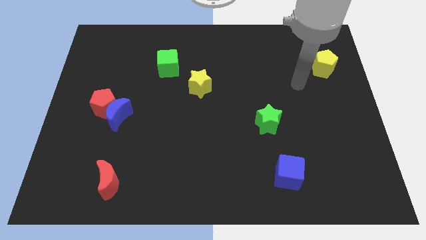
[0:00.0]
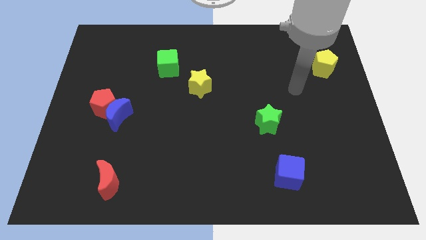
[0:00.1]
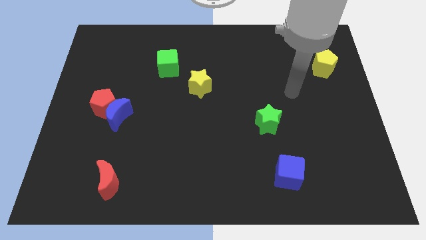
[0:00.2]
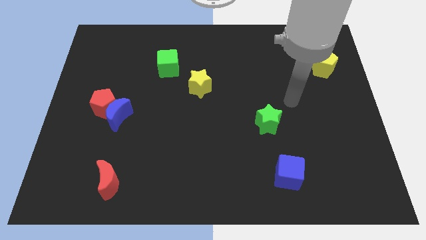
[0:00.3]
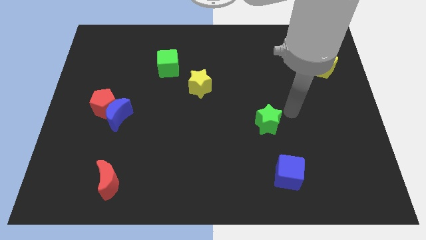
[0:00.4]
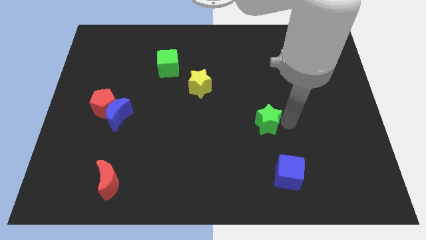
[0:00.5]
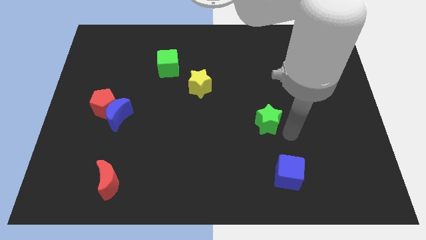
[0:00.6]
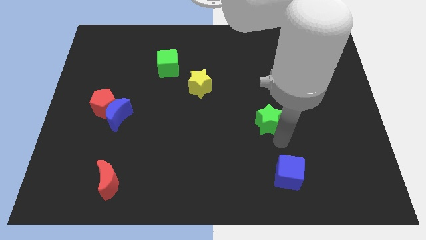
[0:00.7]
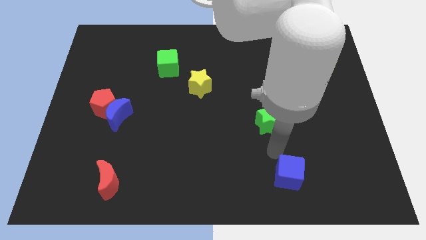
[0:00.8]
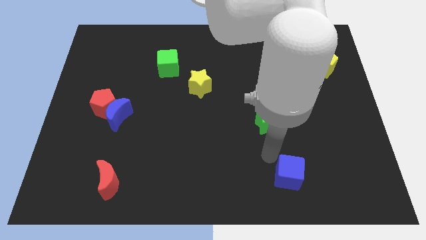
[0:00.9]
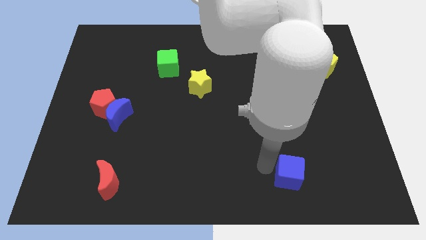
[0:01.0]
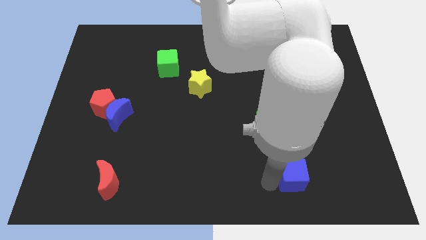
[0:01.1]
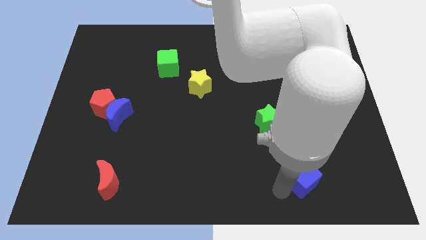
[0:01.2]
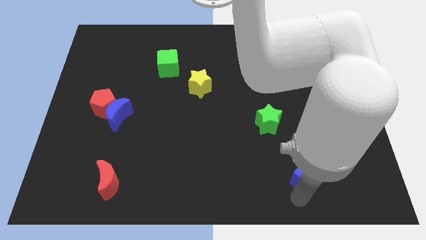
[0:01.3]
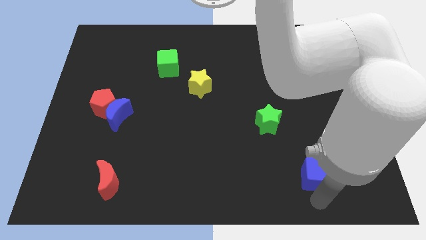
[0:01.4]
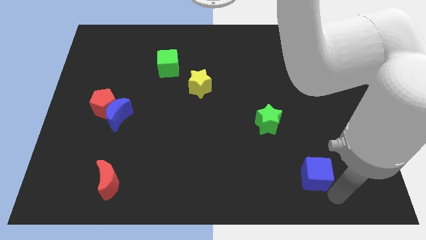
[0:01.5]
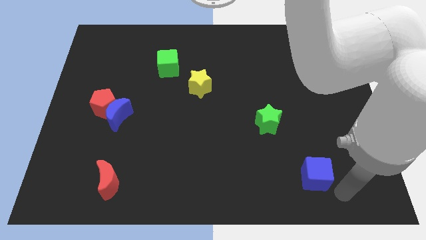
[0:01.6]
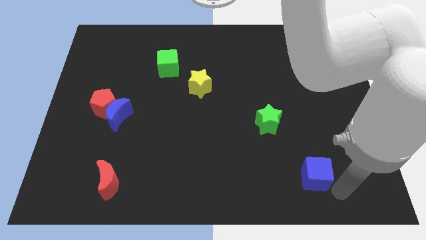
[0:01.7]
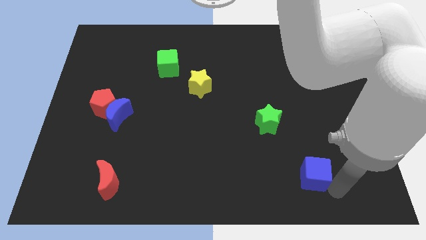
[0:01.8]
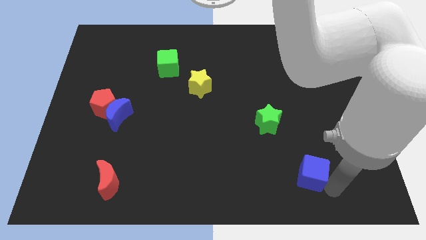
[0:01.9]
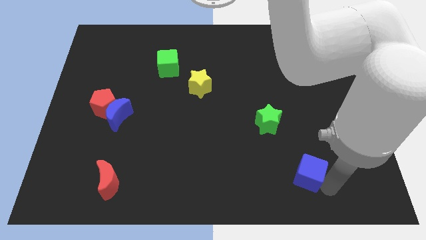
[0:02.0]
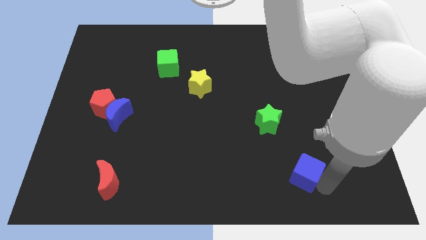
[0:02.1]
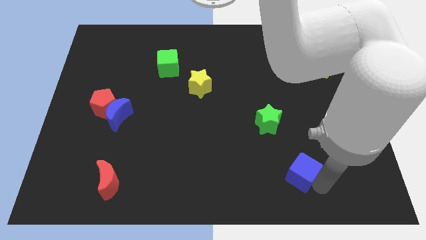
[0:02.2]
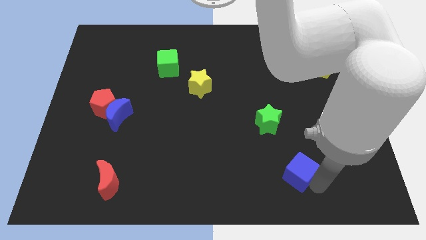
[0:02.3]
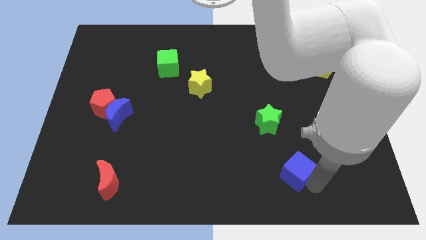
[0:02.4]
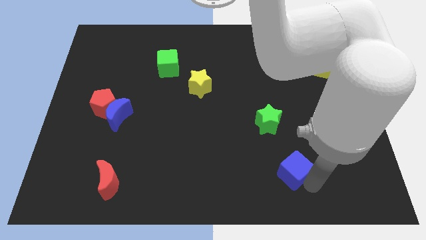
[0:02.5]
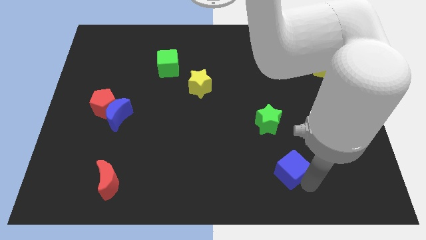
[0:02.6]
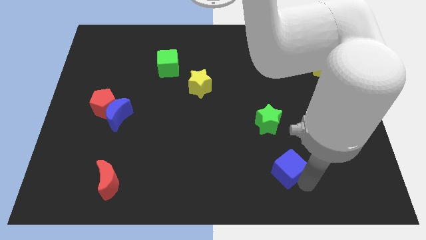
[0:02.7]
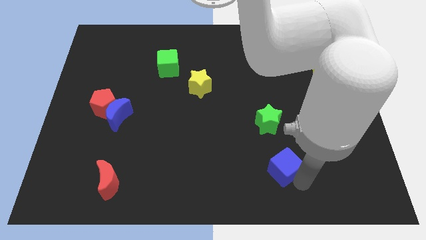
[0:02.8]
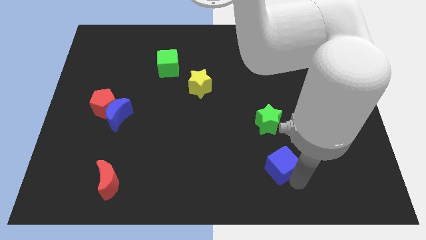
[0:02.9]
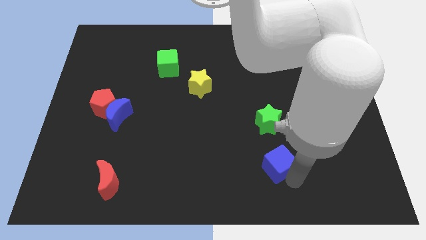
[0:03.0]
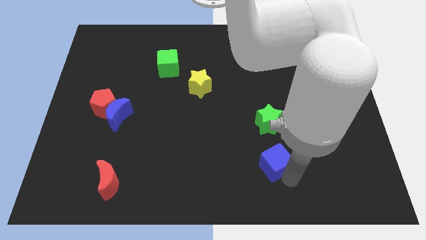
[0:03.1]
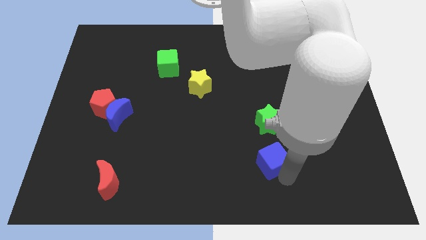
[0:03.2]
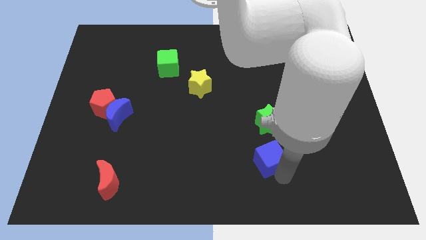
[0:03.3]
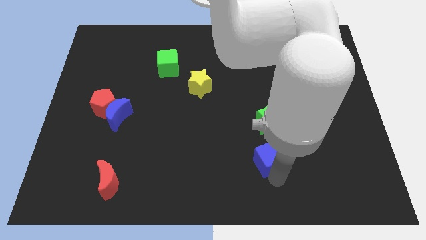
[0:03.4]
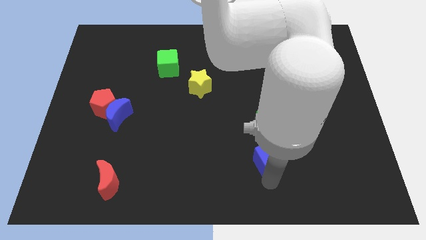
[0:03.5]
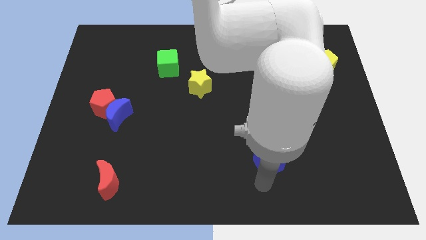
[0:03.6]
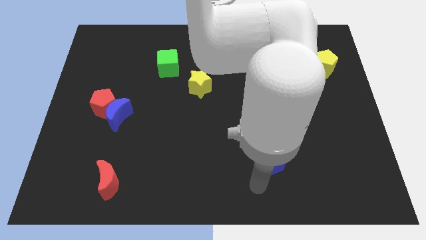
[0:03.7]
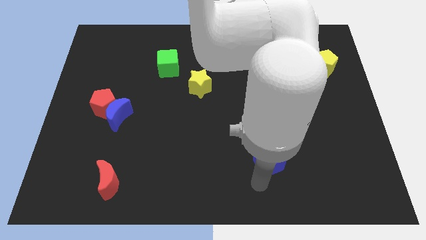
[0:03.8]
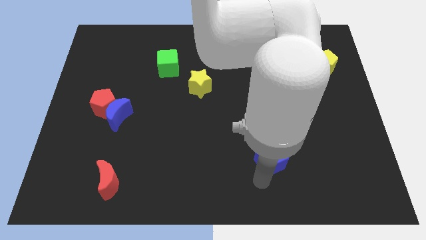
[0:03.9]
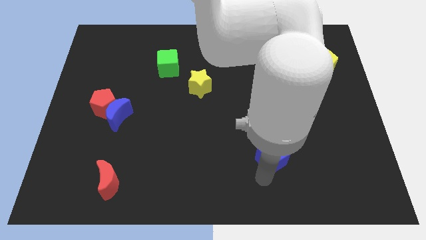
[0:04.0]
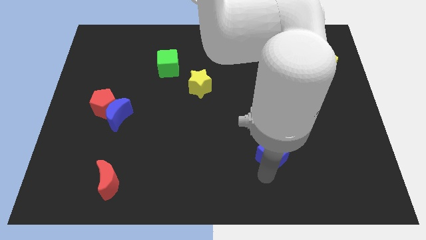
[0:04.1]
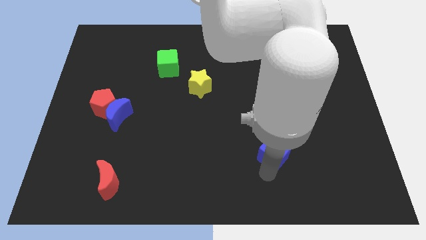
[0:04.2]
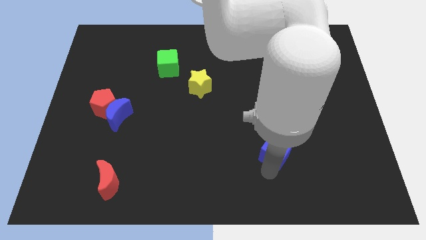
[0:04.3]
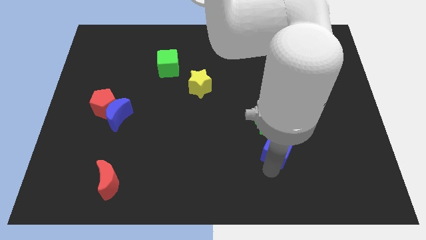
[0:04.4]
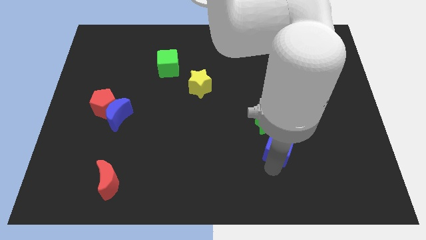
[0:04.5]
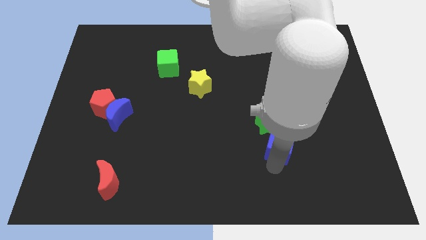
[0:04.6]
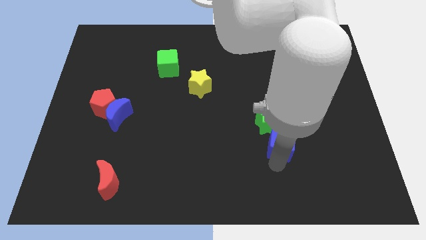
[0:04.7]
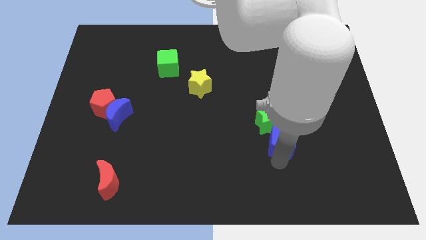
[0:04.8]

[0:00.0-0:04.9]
push the blue cube next to the green star

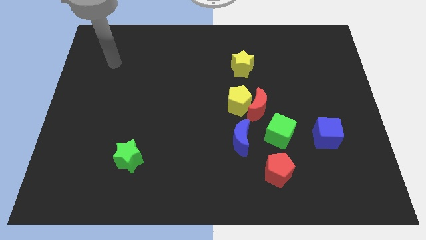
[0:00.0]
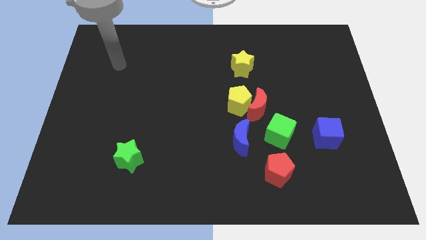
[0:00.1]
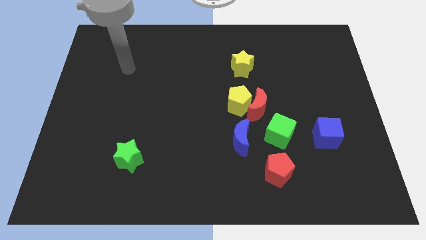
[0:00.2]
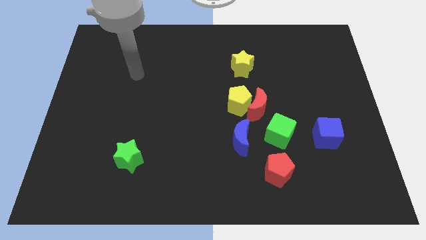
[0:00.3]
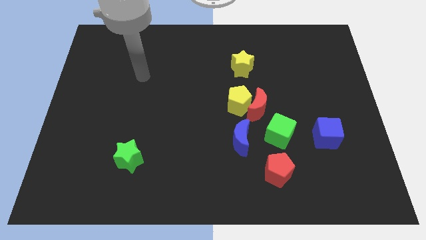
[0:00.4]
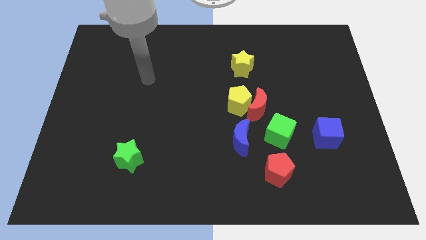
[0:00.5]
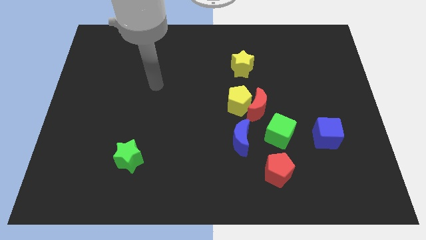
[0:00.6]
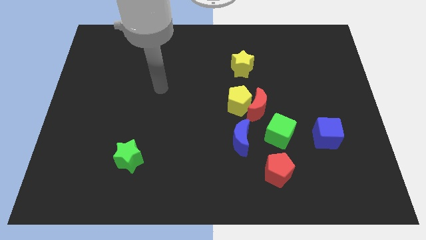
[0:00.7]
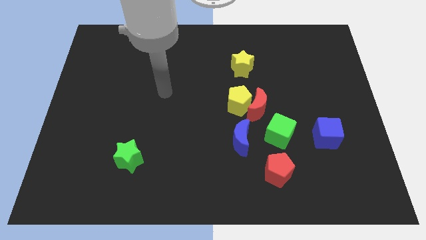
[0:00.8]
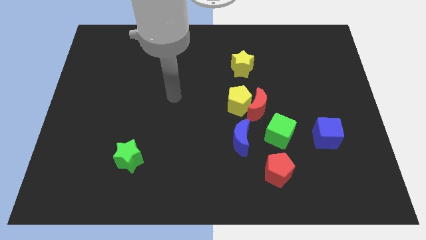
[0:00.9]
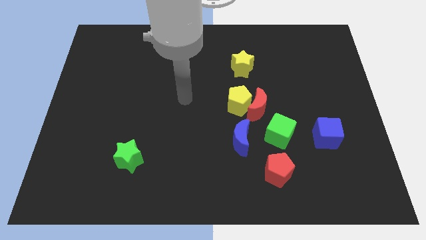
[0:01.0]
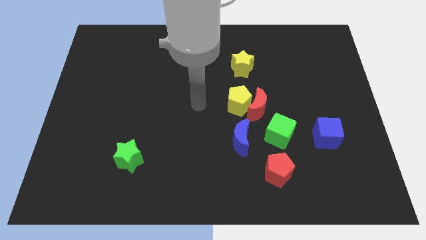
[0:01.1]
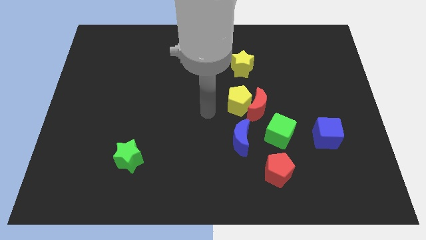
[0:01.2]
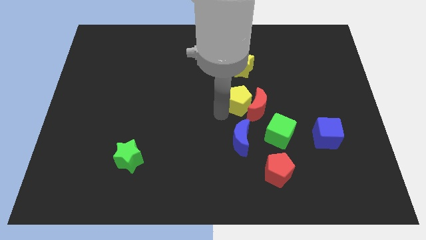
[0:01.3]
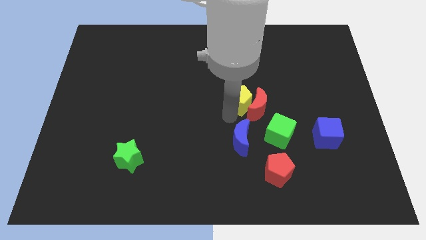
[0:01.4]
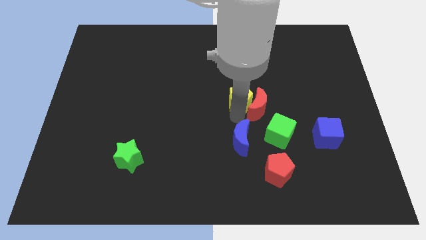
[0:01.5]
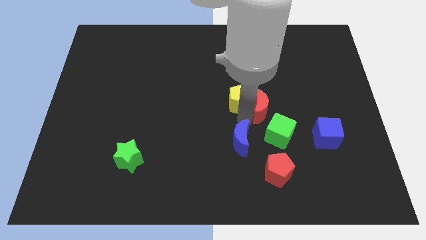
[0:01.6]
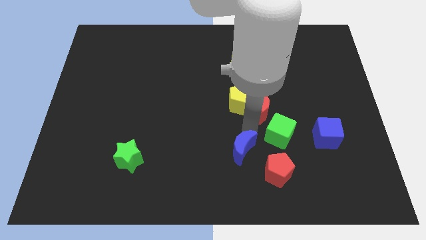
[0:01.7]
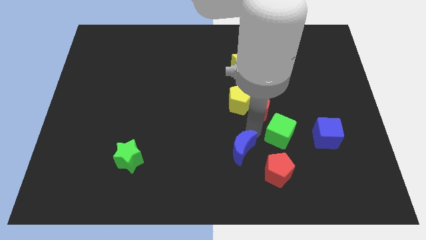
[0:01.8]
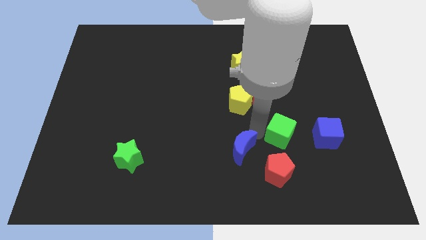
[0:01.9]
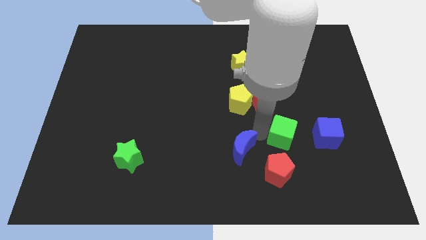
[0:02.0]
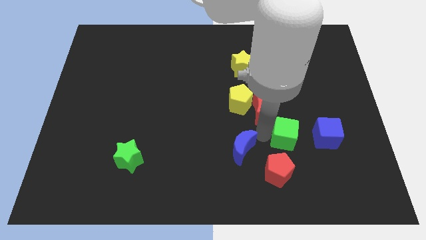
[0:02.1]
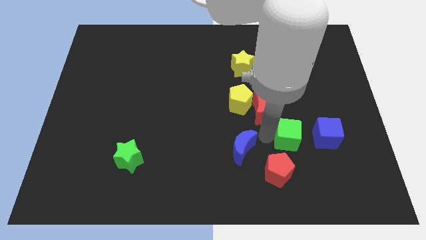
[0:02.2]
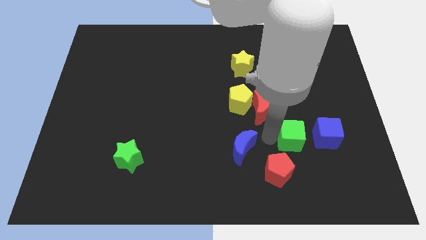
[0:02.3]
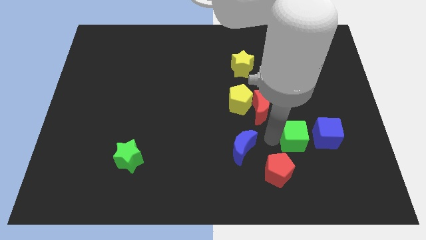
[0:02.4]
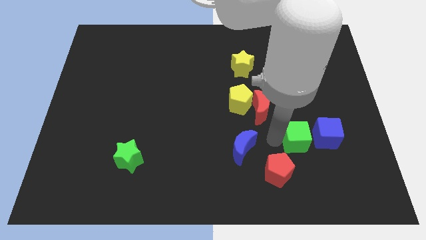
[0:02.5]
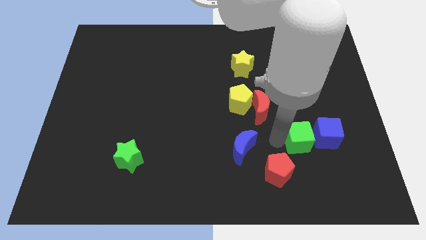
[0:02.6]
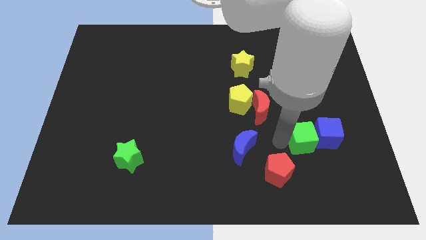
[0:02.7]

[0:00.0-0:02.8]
move the green cube towards the blue cube
